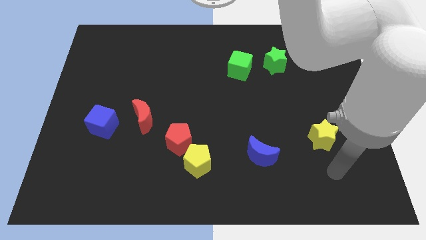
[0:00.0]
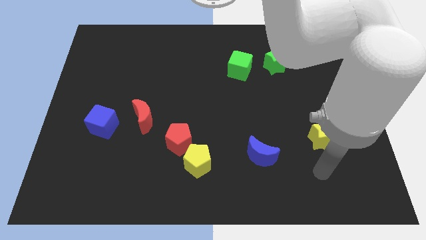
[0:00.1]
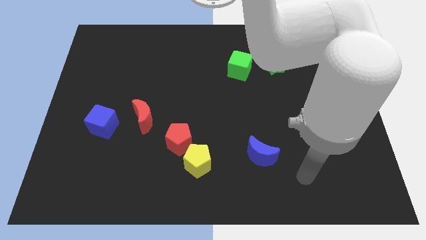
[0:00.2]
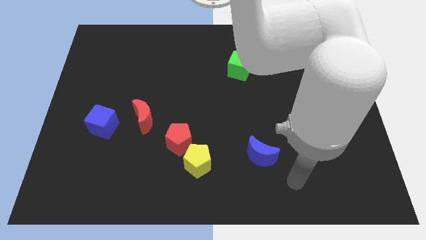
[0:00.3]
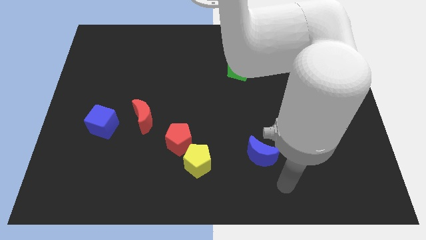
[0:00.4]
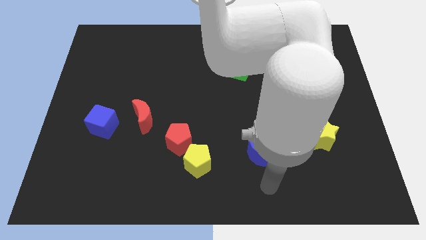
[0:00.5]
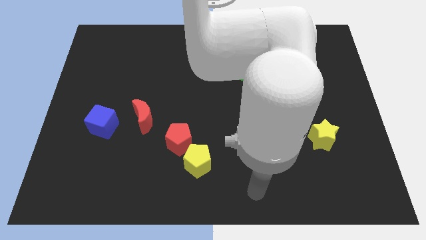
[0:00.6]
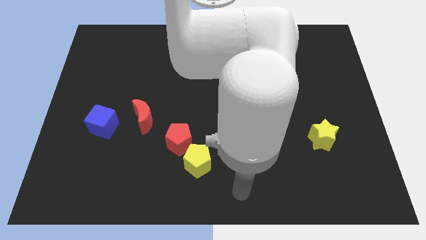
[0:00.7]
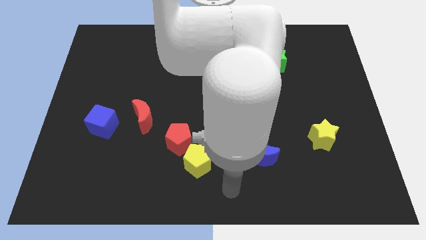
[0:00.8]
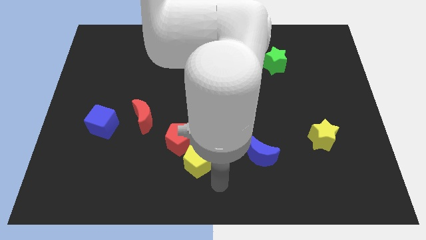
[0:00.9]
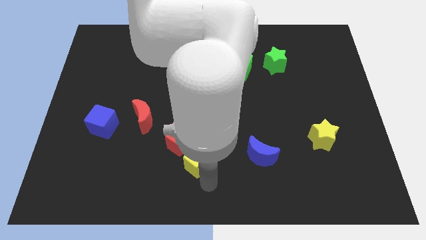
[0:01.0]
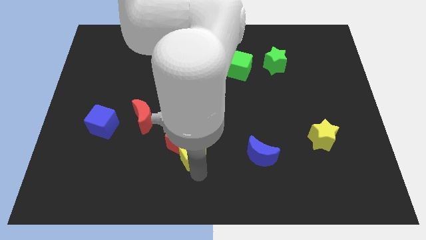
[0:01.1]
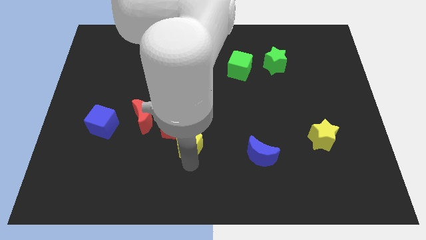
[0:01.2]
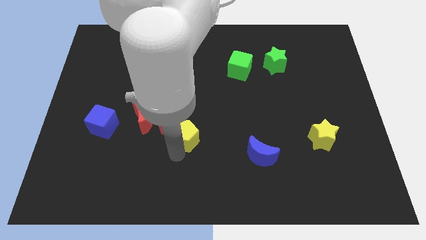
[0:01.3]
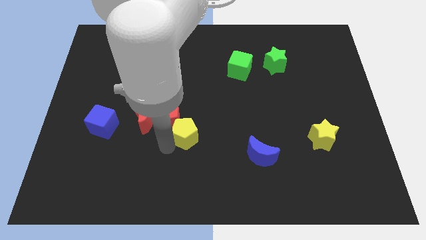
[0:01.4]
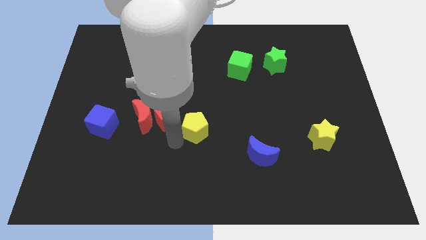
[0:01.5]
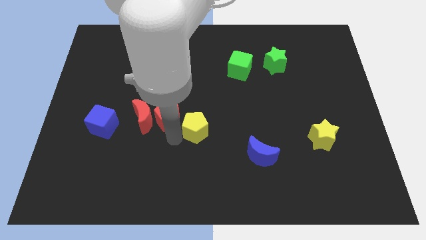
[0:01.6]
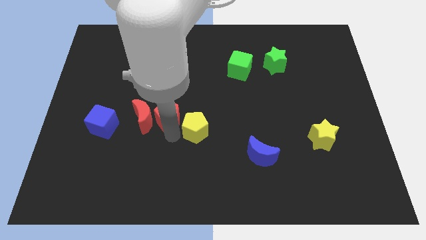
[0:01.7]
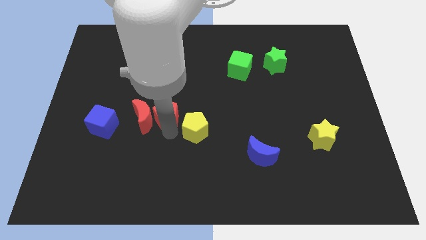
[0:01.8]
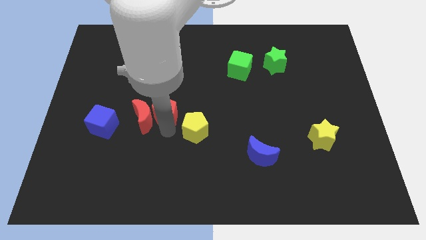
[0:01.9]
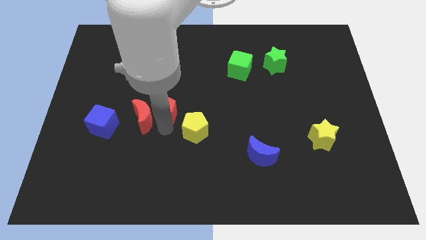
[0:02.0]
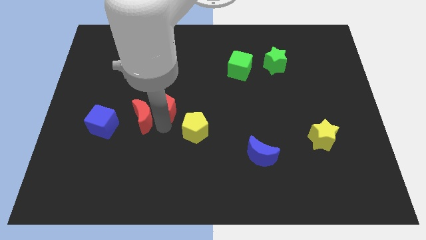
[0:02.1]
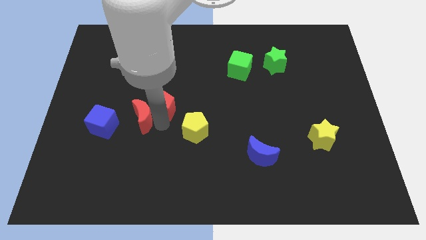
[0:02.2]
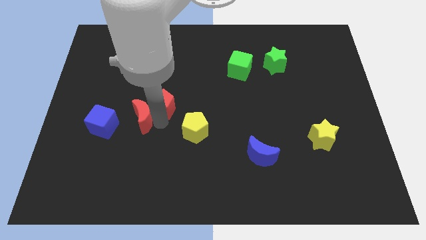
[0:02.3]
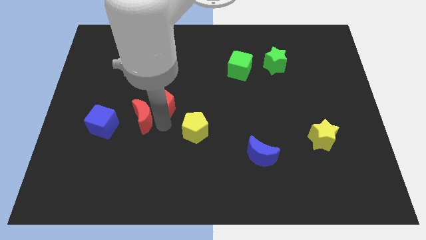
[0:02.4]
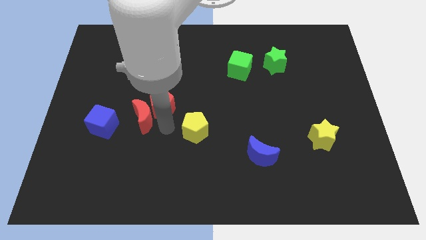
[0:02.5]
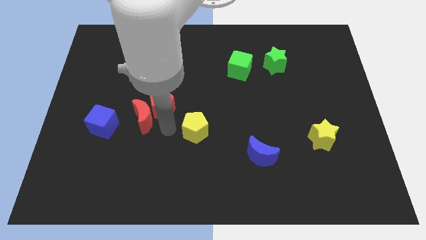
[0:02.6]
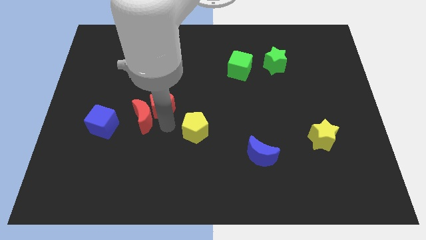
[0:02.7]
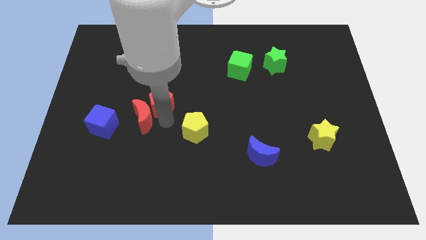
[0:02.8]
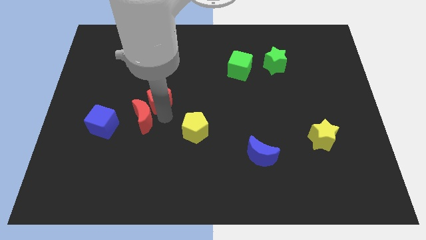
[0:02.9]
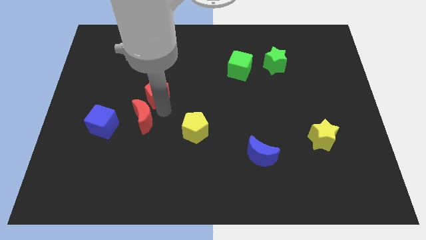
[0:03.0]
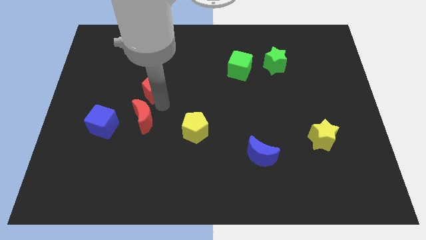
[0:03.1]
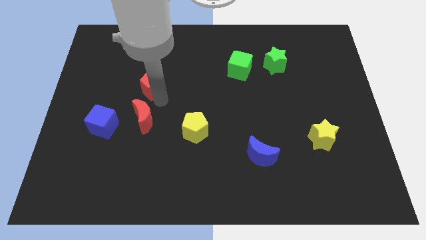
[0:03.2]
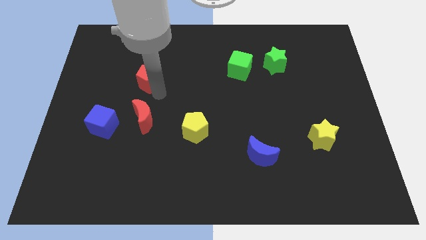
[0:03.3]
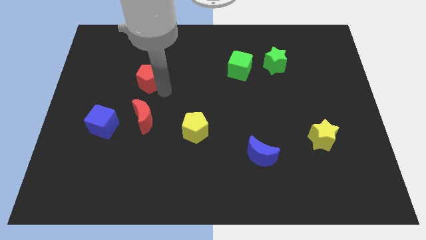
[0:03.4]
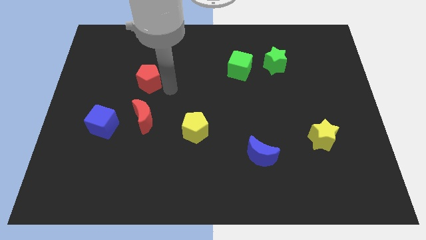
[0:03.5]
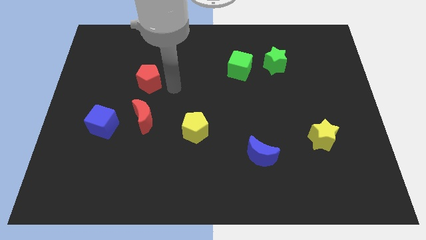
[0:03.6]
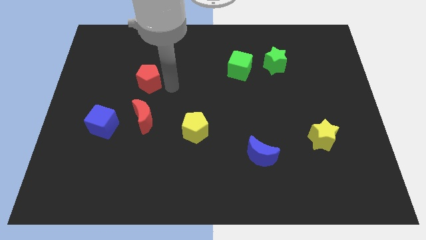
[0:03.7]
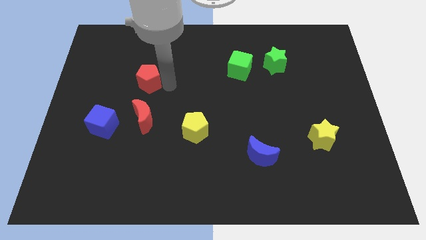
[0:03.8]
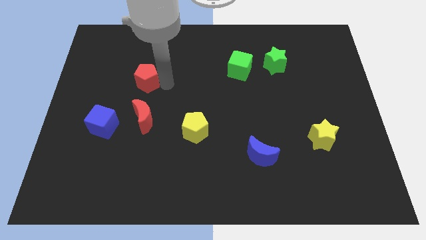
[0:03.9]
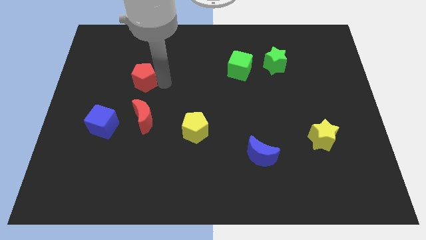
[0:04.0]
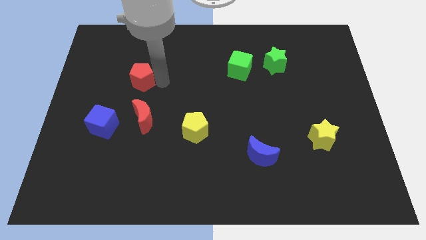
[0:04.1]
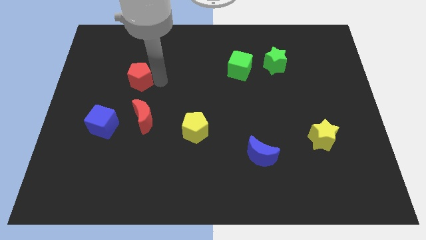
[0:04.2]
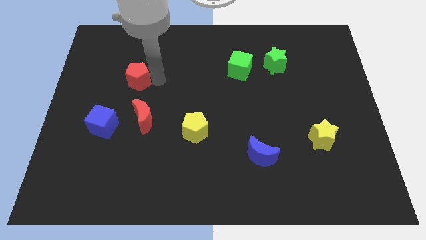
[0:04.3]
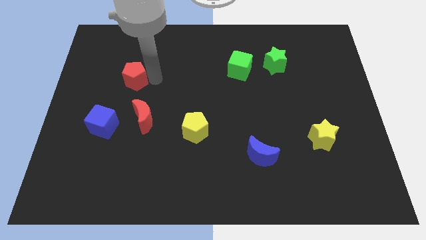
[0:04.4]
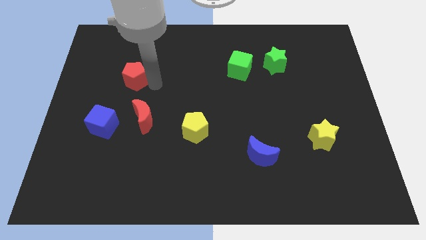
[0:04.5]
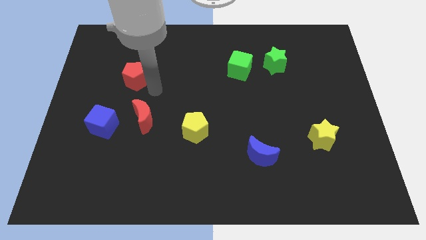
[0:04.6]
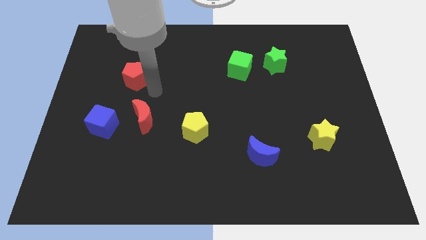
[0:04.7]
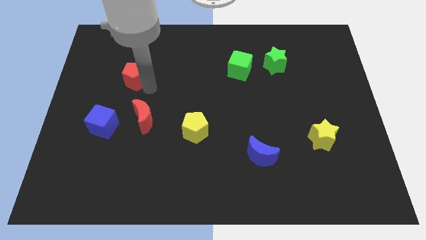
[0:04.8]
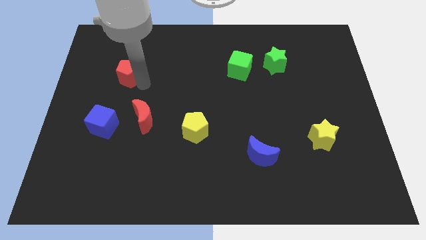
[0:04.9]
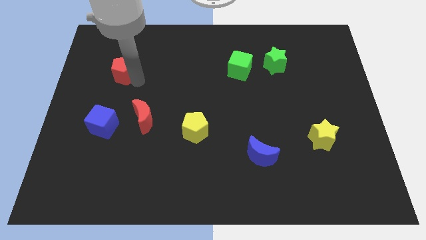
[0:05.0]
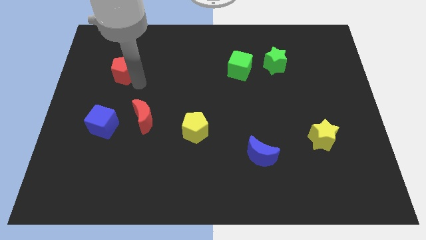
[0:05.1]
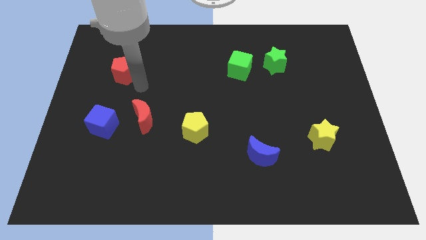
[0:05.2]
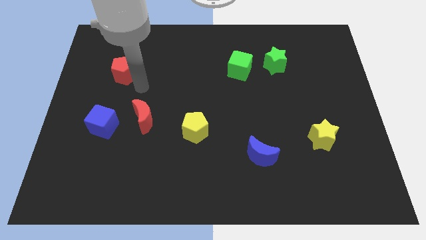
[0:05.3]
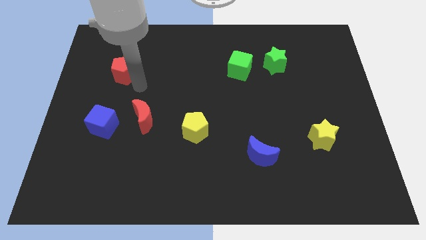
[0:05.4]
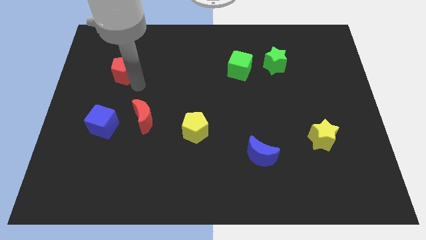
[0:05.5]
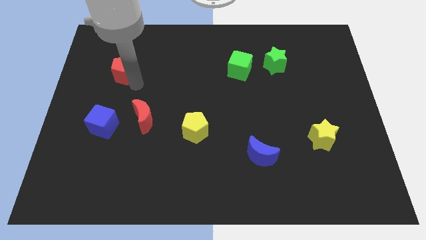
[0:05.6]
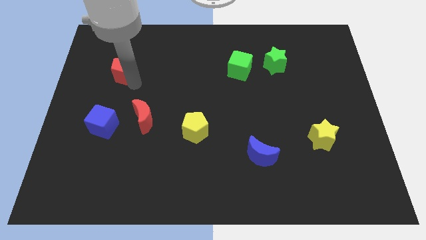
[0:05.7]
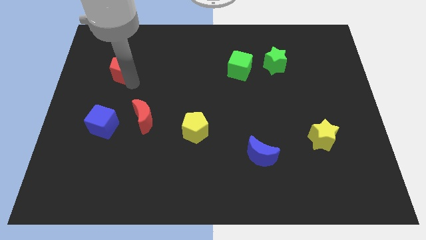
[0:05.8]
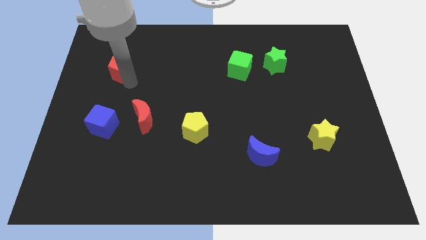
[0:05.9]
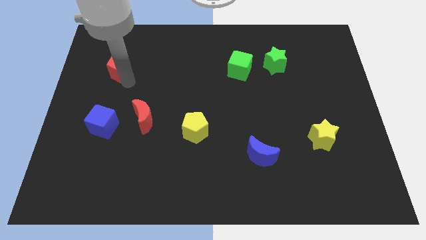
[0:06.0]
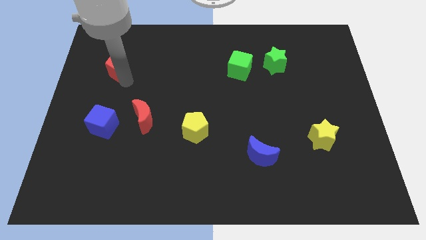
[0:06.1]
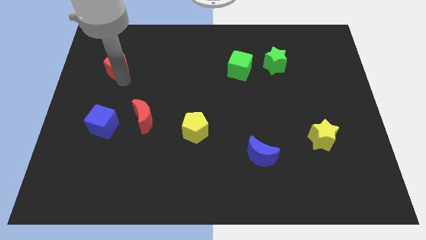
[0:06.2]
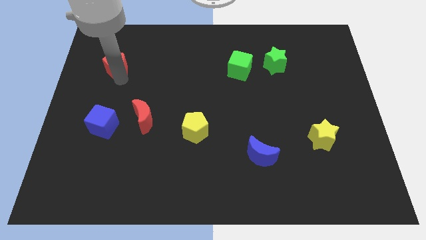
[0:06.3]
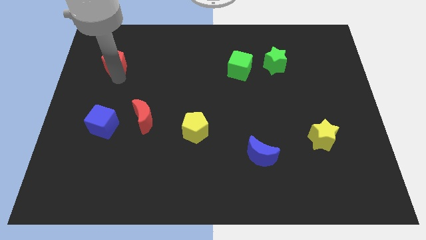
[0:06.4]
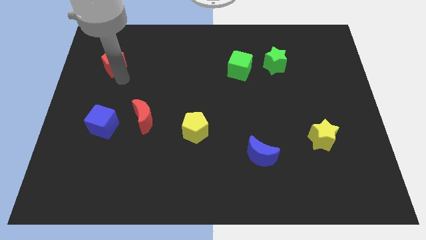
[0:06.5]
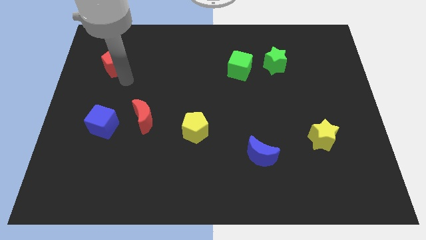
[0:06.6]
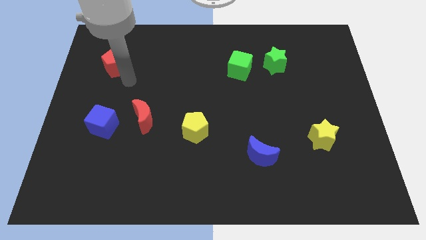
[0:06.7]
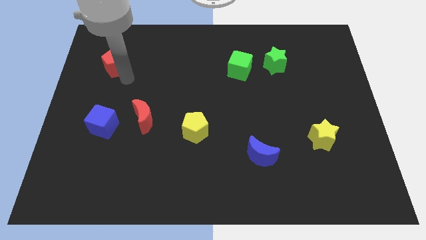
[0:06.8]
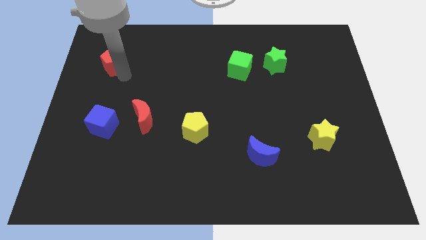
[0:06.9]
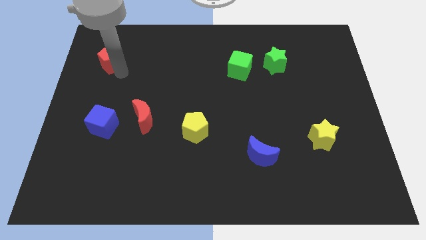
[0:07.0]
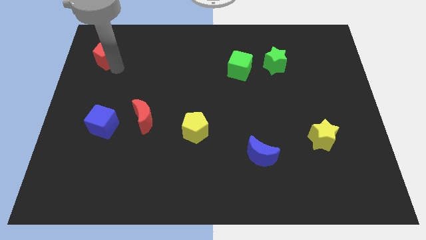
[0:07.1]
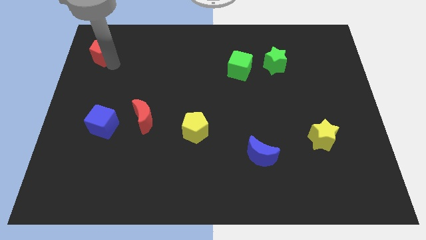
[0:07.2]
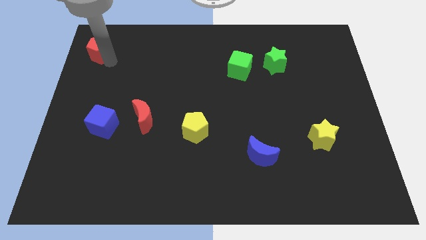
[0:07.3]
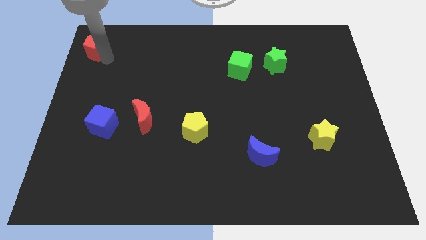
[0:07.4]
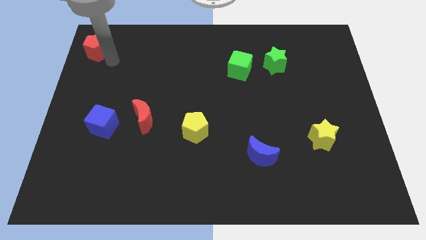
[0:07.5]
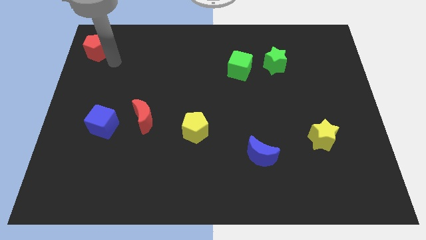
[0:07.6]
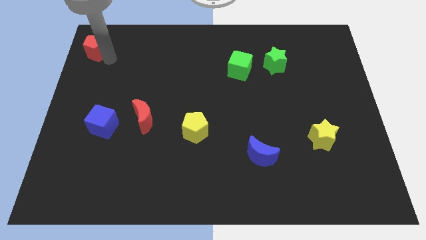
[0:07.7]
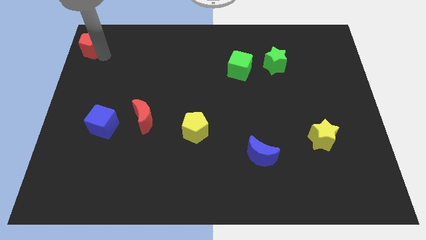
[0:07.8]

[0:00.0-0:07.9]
put the red pentagon to the top left
